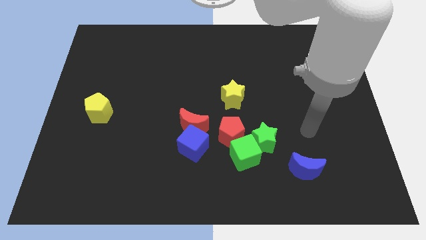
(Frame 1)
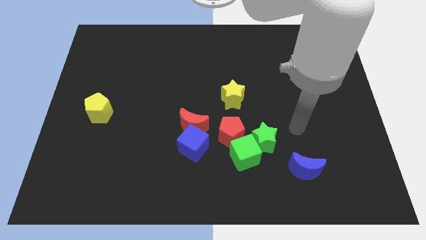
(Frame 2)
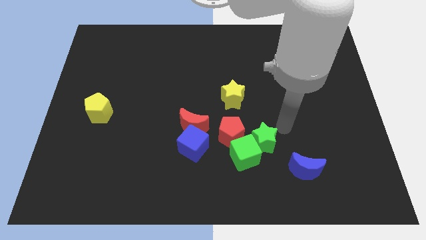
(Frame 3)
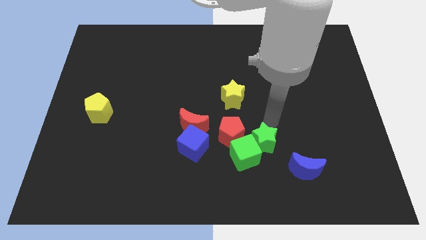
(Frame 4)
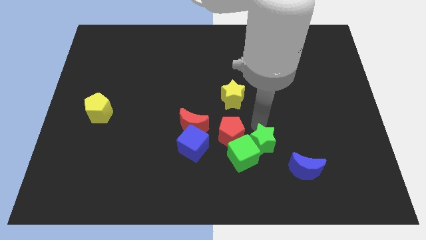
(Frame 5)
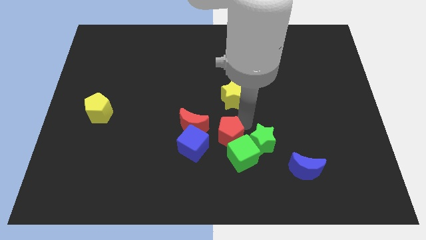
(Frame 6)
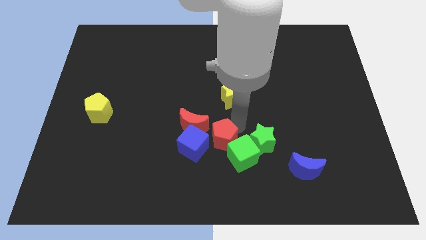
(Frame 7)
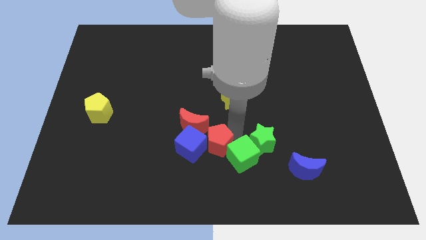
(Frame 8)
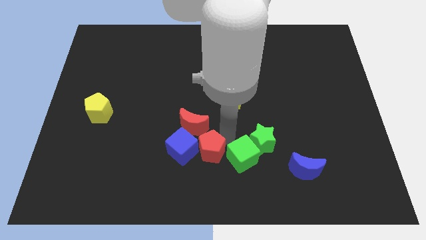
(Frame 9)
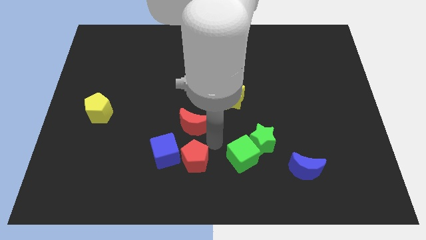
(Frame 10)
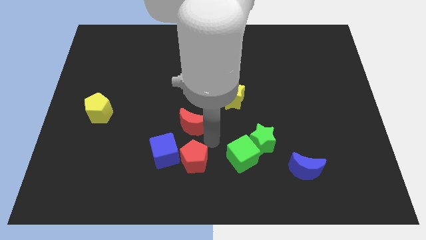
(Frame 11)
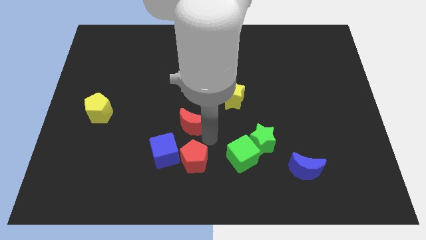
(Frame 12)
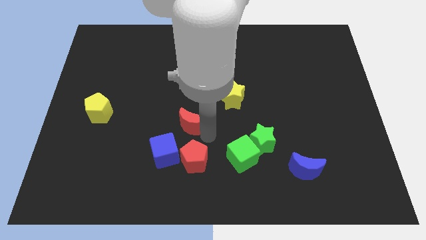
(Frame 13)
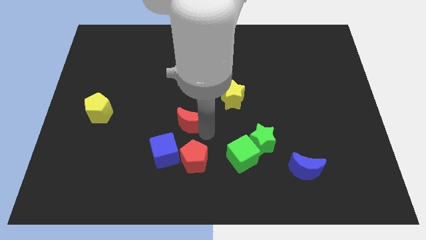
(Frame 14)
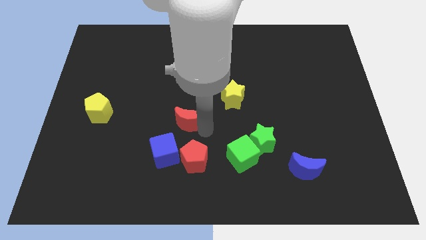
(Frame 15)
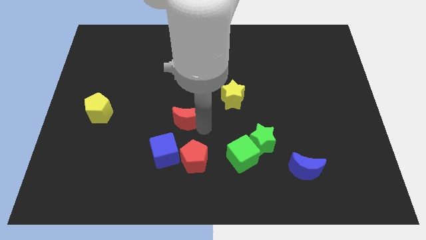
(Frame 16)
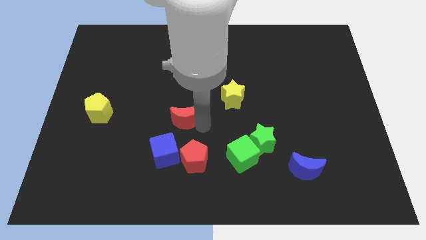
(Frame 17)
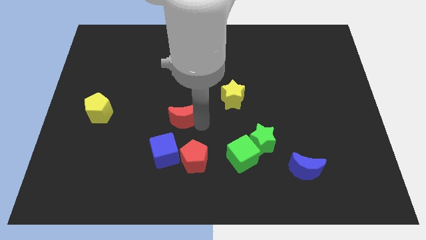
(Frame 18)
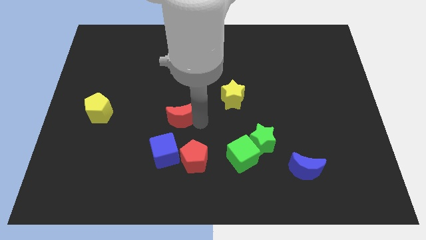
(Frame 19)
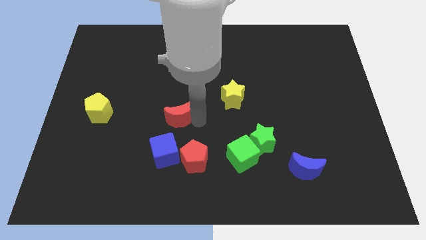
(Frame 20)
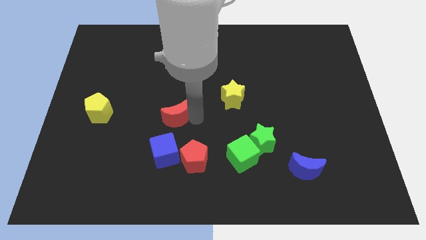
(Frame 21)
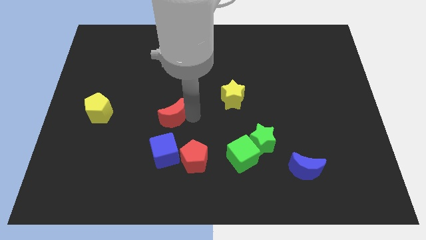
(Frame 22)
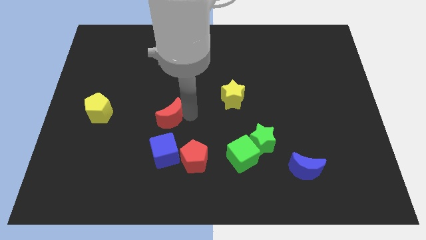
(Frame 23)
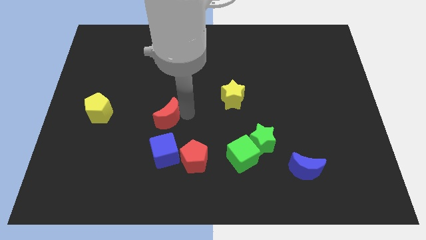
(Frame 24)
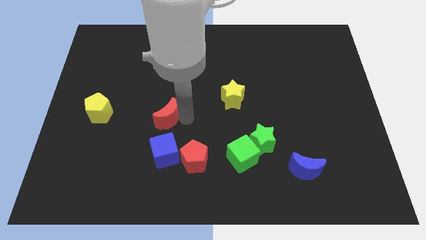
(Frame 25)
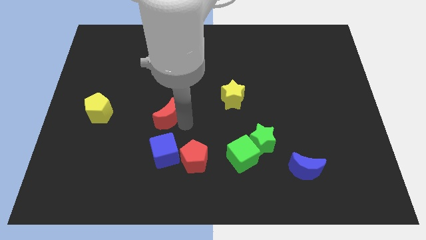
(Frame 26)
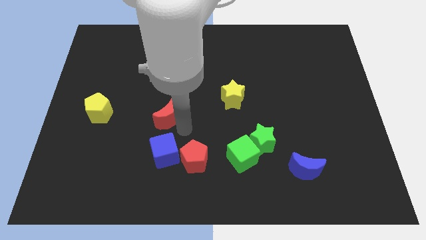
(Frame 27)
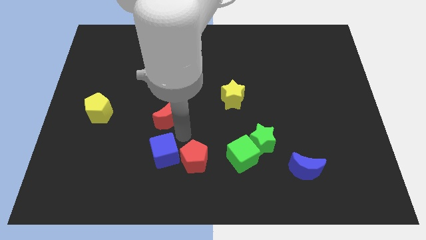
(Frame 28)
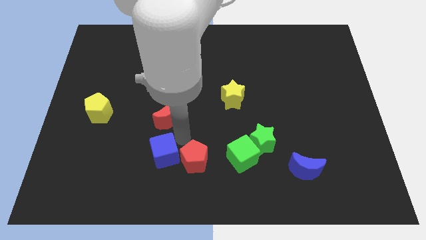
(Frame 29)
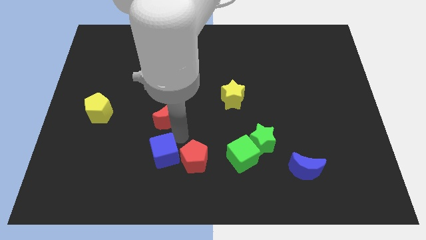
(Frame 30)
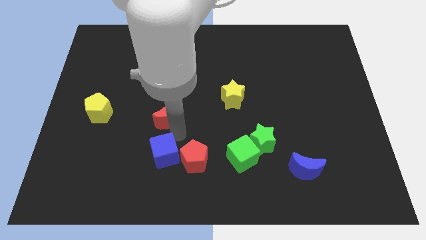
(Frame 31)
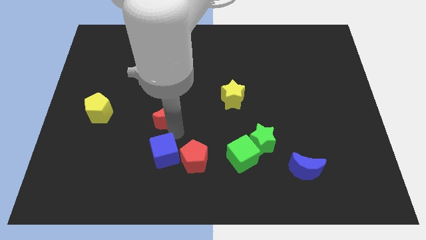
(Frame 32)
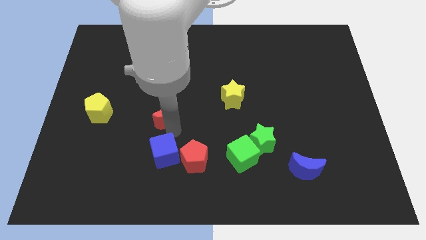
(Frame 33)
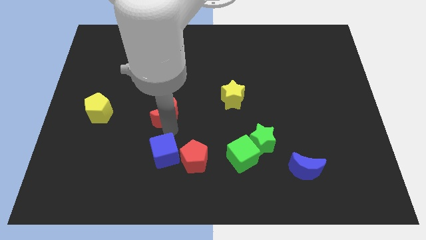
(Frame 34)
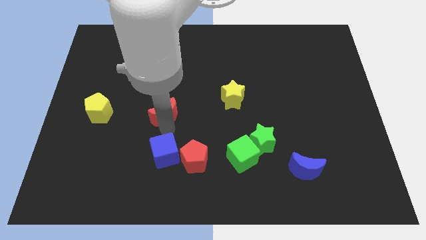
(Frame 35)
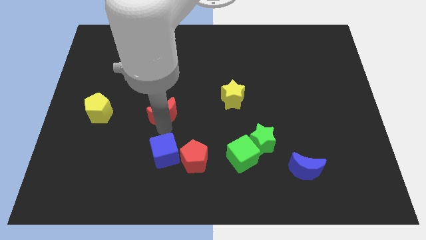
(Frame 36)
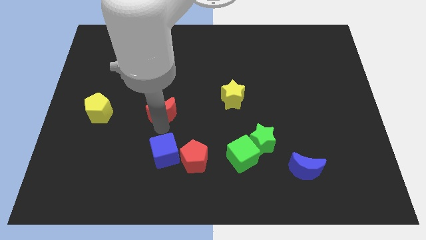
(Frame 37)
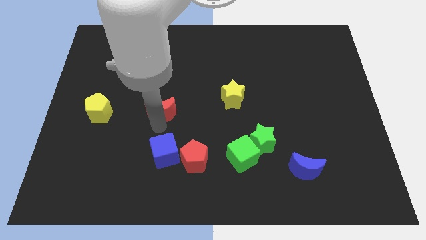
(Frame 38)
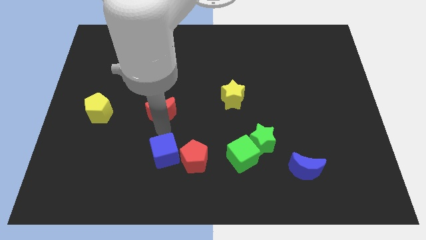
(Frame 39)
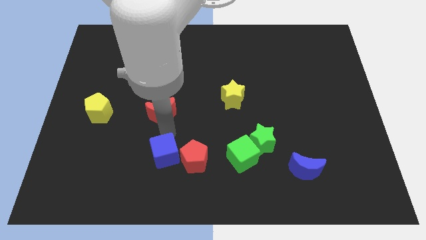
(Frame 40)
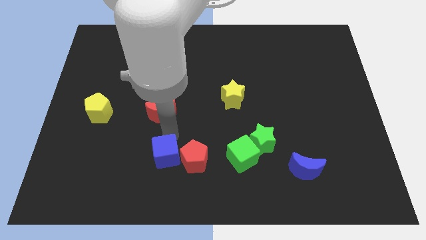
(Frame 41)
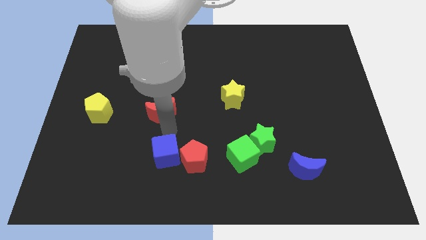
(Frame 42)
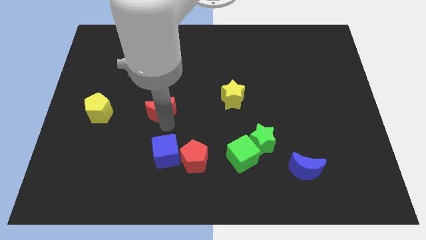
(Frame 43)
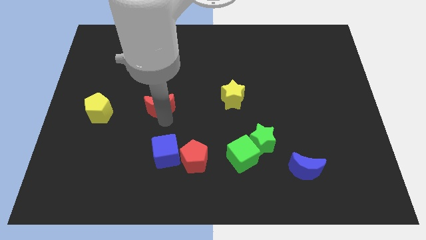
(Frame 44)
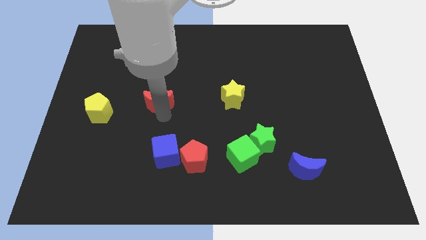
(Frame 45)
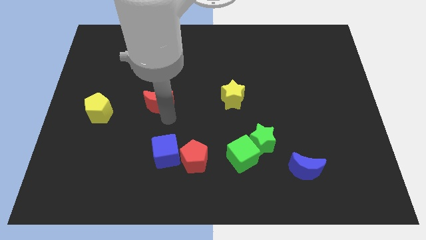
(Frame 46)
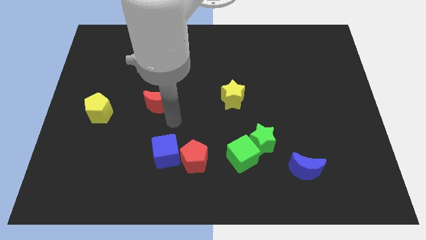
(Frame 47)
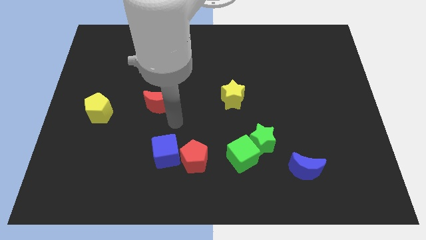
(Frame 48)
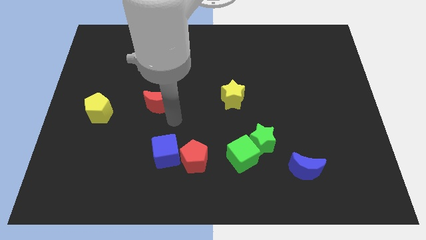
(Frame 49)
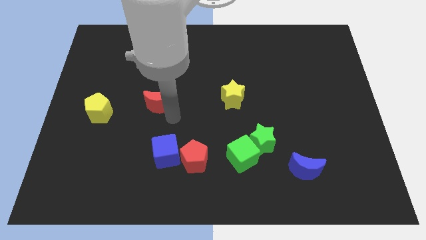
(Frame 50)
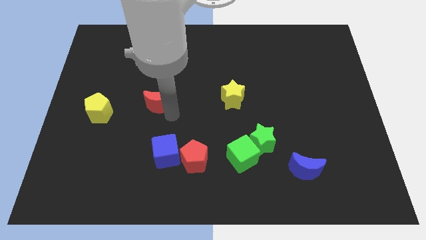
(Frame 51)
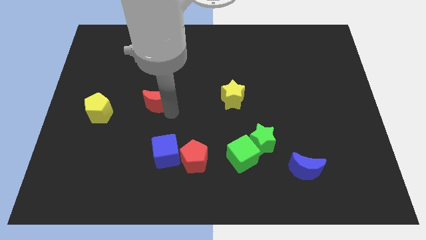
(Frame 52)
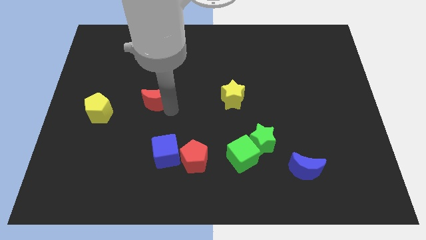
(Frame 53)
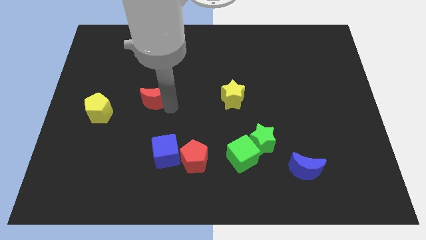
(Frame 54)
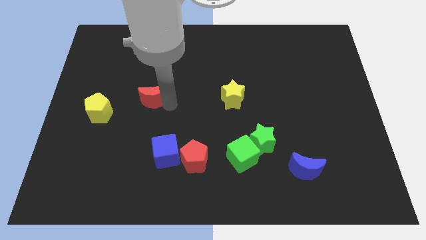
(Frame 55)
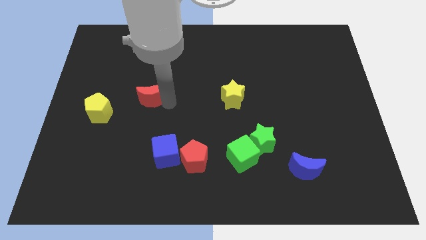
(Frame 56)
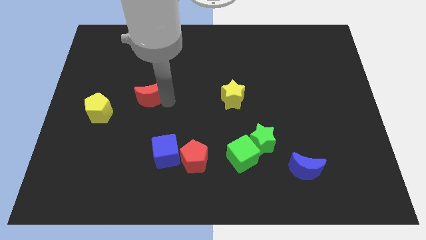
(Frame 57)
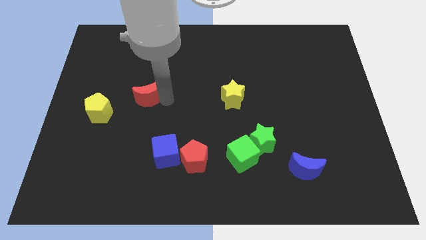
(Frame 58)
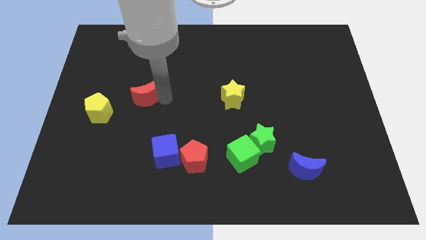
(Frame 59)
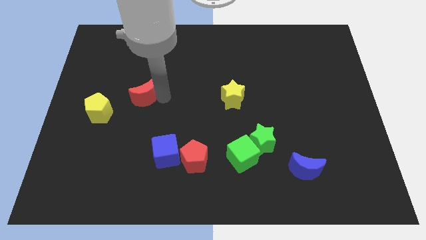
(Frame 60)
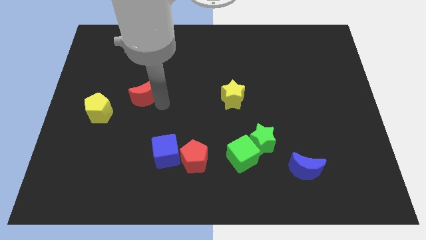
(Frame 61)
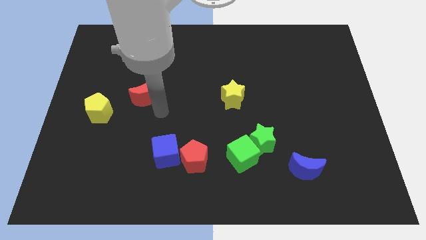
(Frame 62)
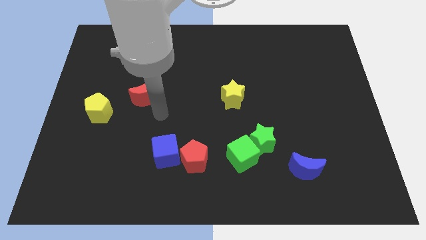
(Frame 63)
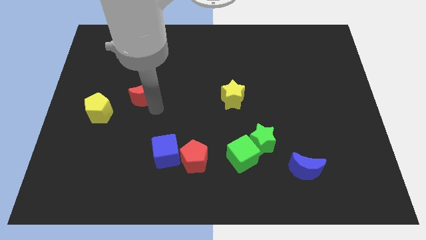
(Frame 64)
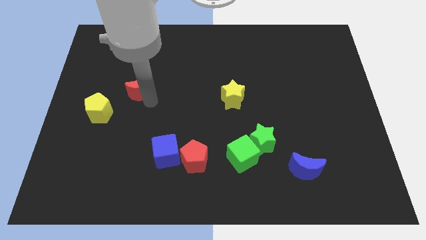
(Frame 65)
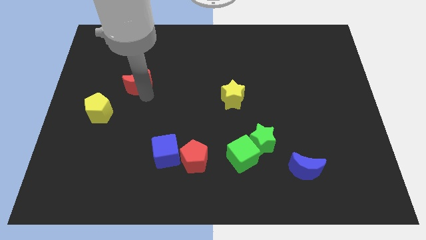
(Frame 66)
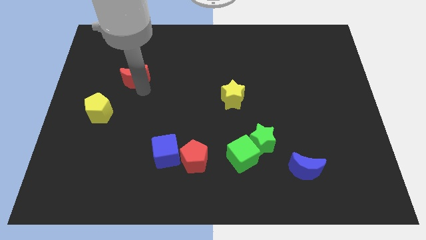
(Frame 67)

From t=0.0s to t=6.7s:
move the red moon up and then to the left

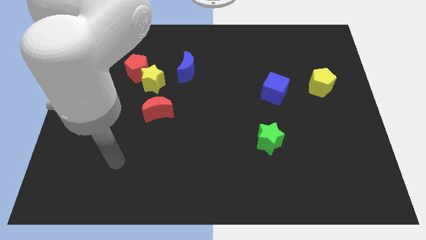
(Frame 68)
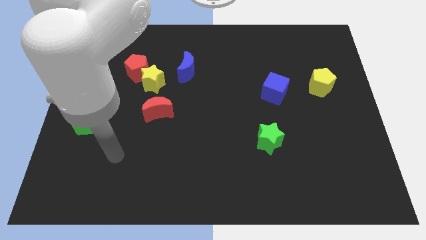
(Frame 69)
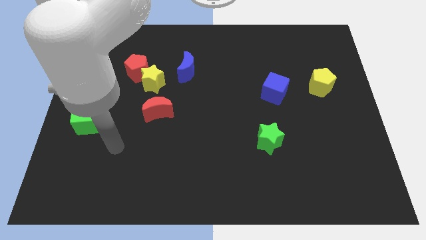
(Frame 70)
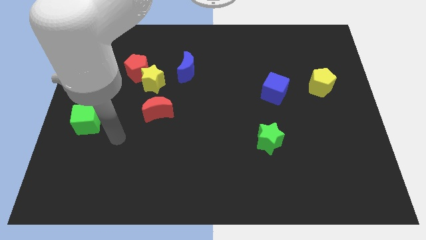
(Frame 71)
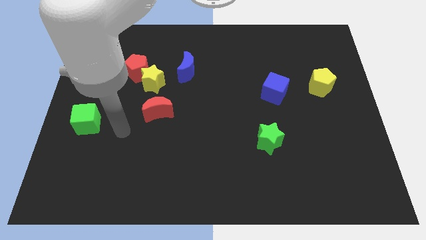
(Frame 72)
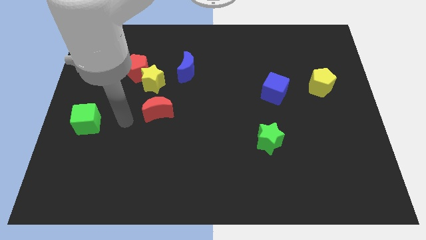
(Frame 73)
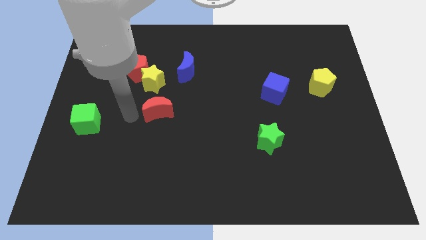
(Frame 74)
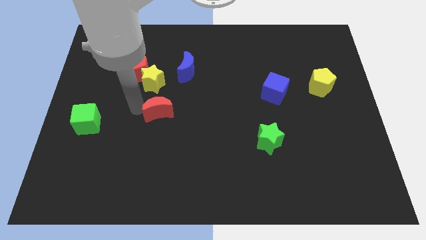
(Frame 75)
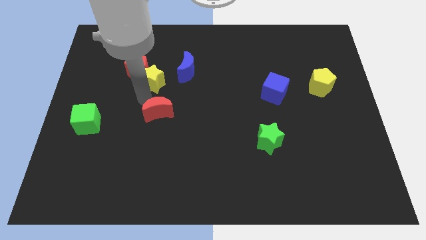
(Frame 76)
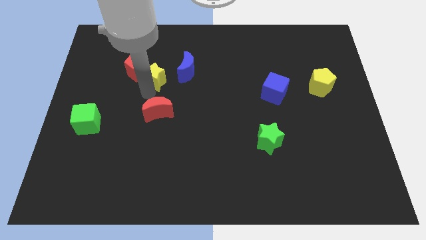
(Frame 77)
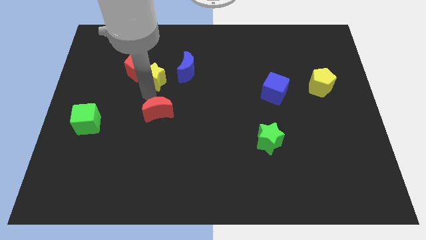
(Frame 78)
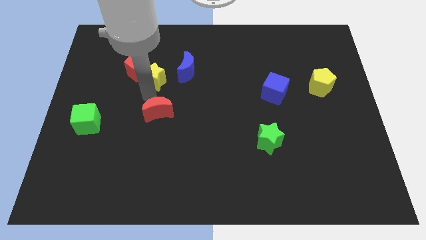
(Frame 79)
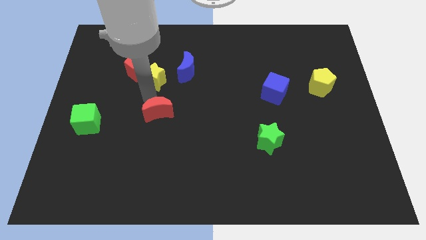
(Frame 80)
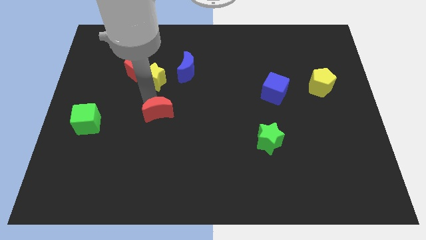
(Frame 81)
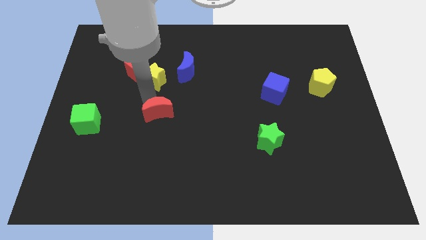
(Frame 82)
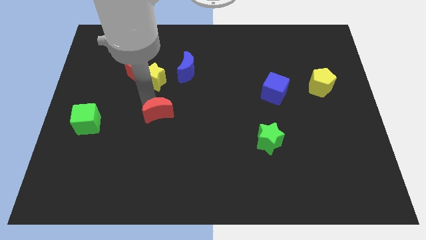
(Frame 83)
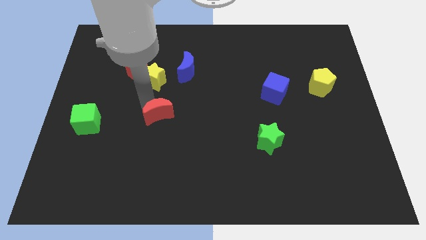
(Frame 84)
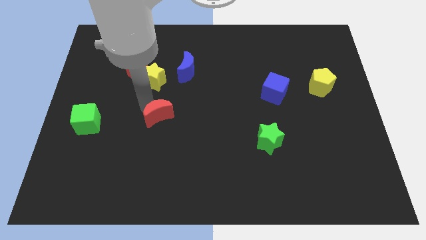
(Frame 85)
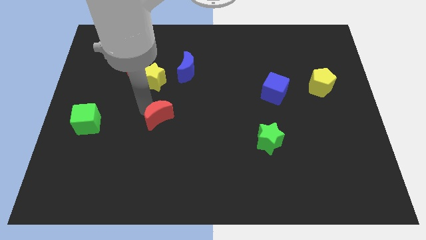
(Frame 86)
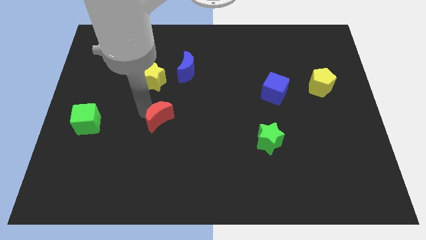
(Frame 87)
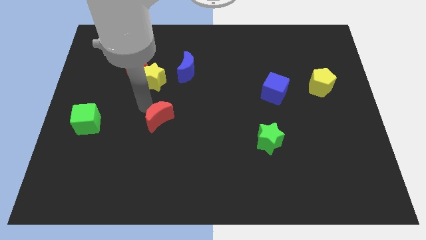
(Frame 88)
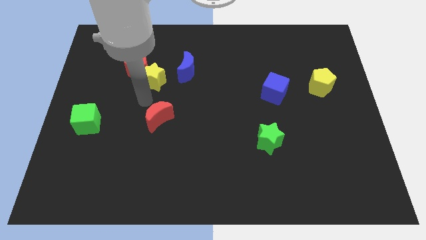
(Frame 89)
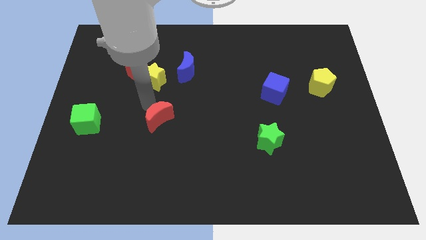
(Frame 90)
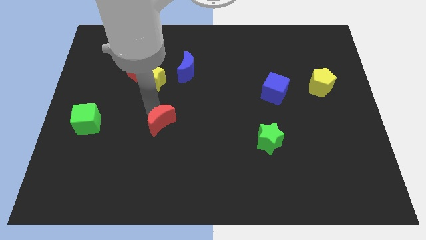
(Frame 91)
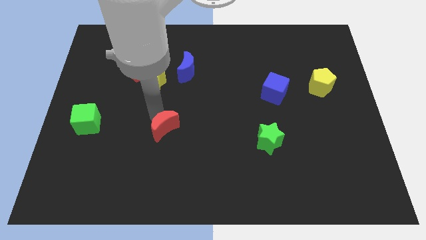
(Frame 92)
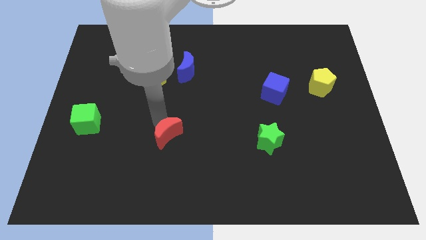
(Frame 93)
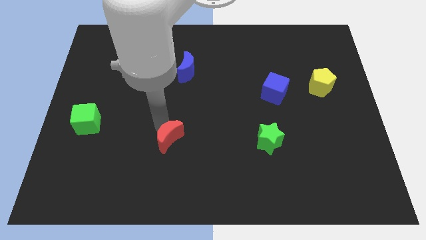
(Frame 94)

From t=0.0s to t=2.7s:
slide the red moon downwards and right diagonally a bit
